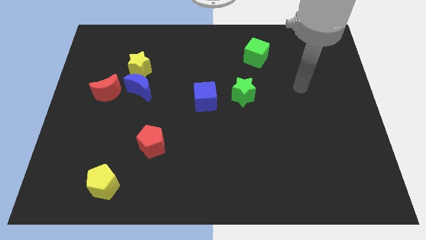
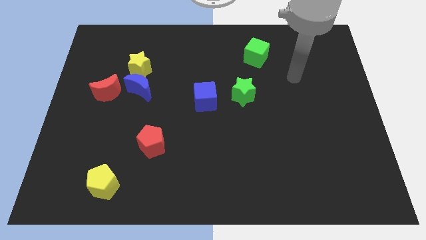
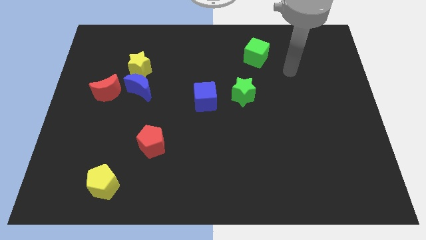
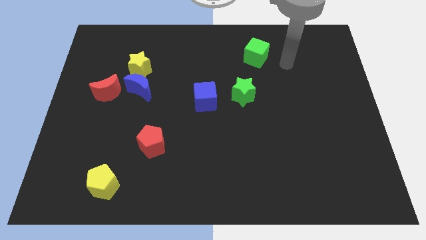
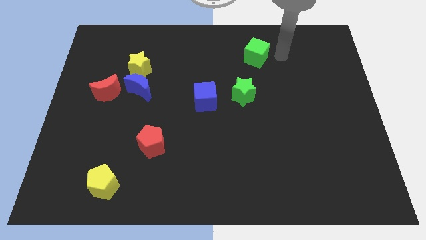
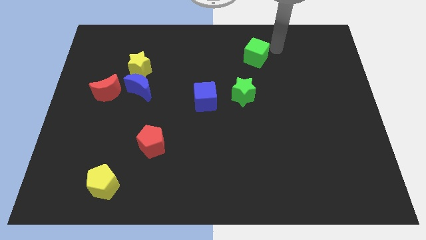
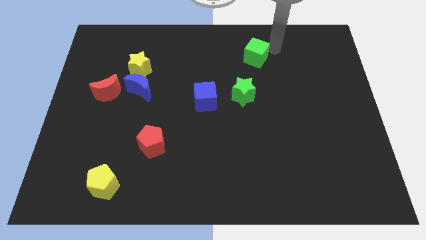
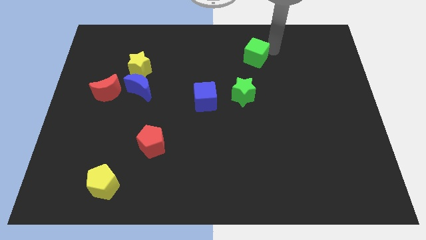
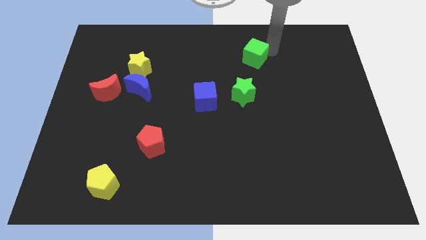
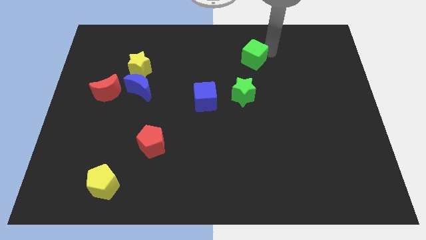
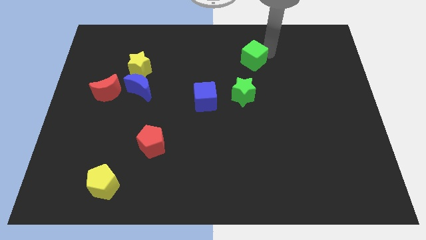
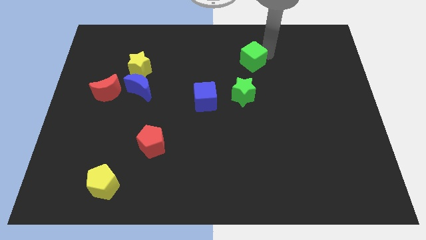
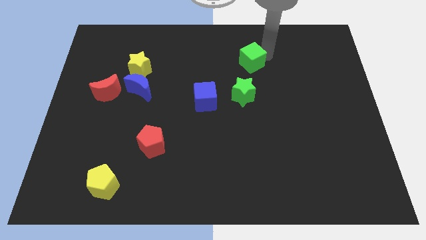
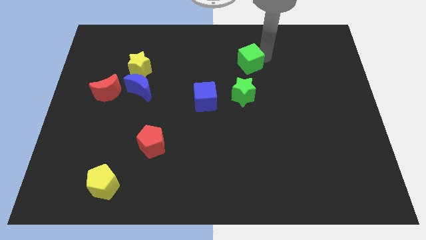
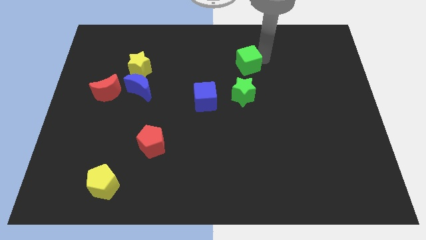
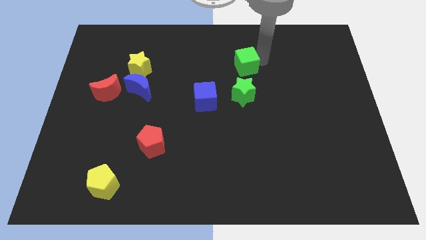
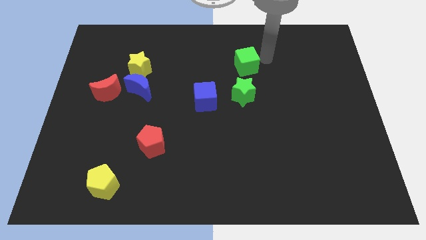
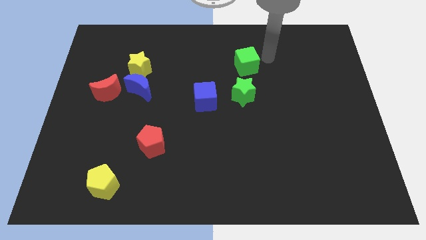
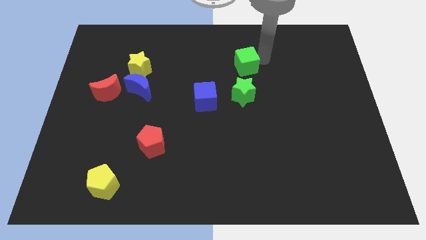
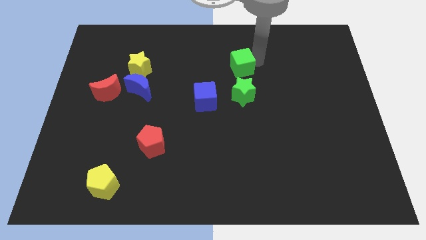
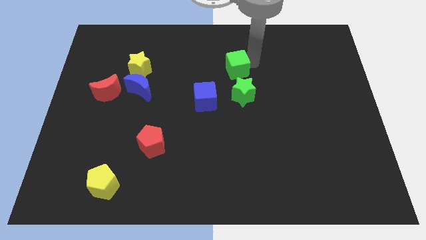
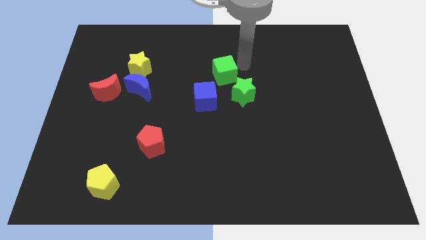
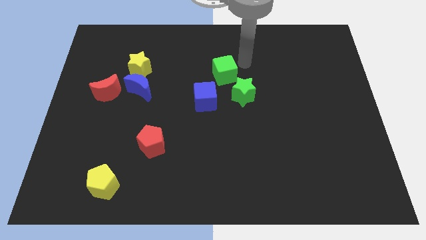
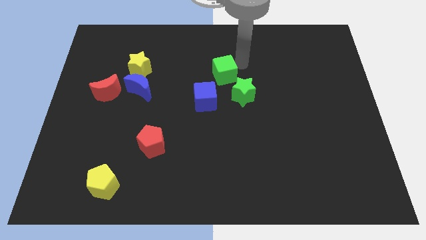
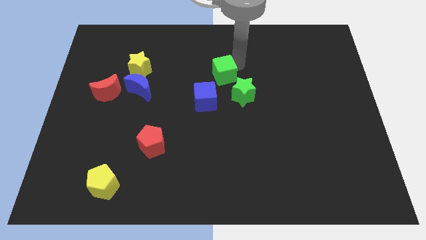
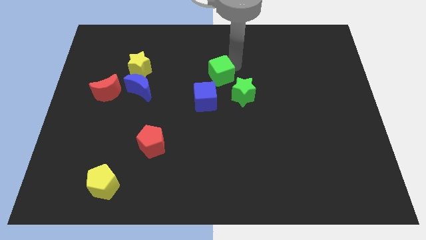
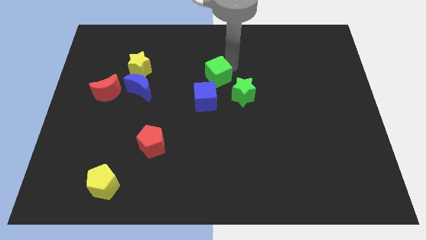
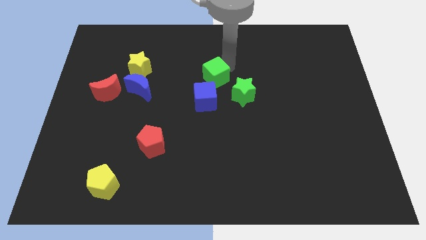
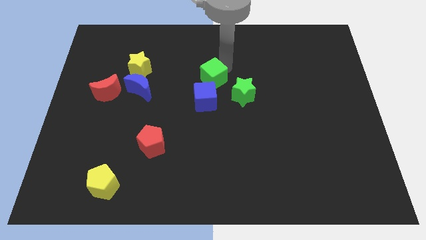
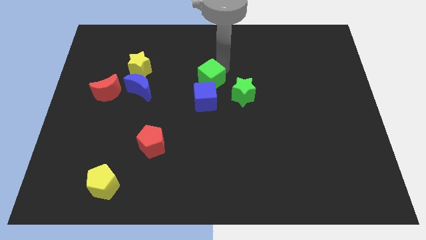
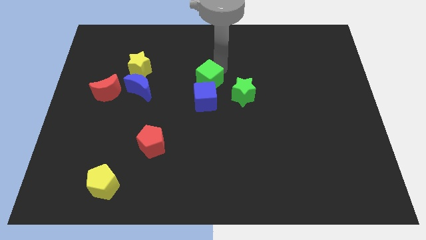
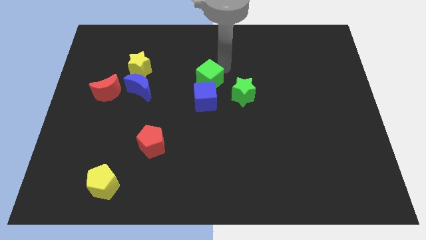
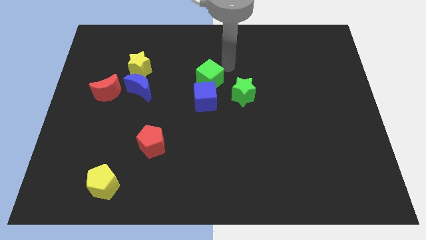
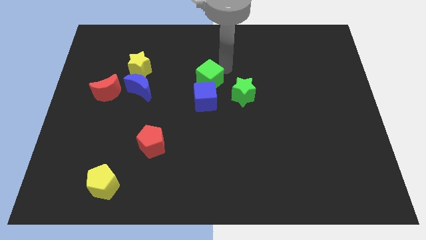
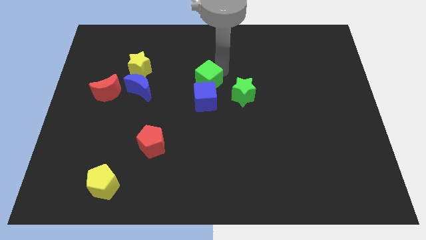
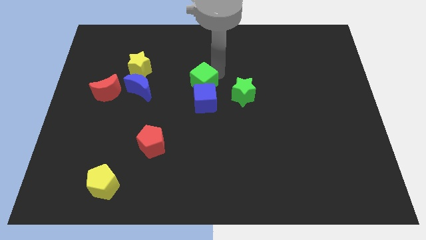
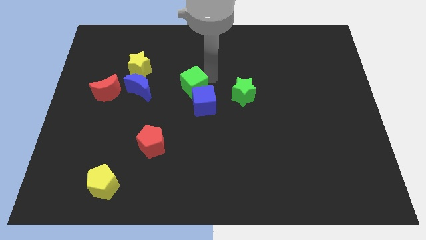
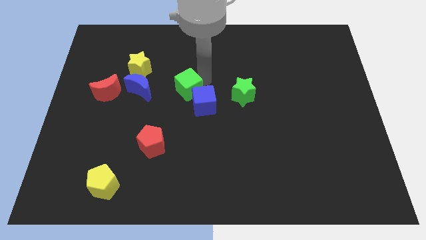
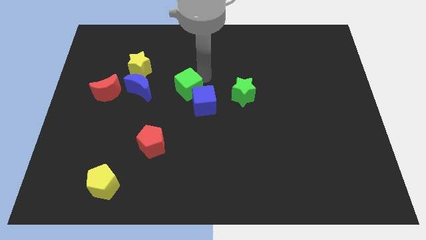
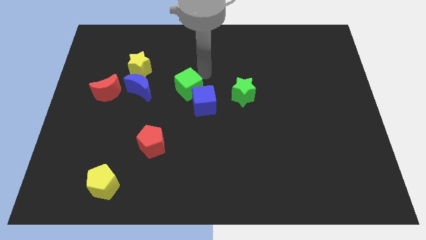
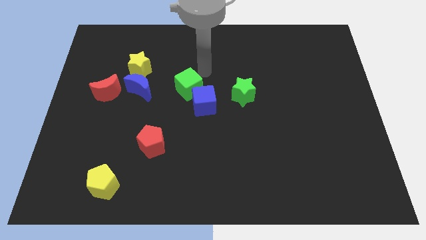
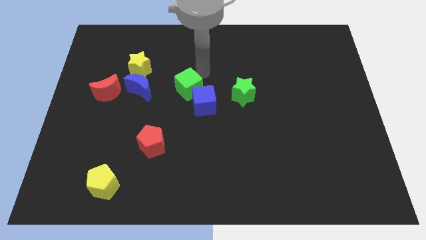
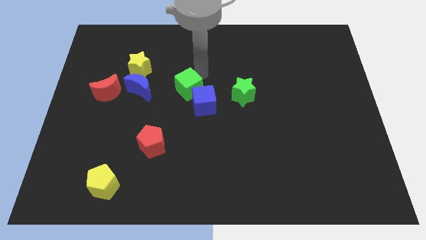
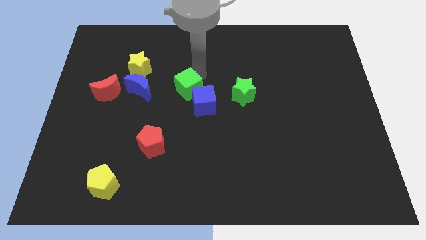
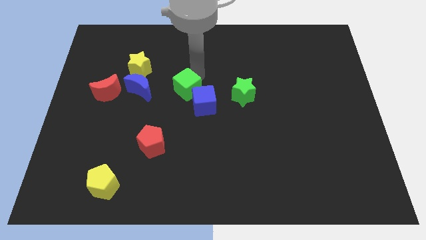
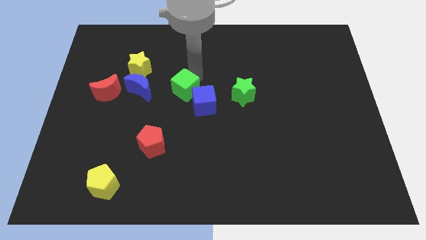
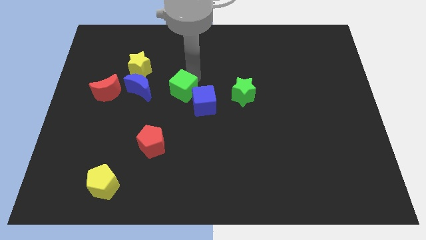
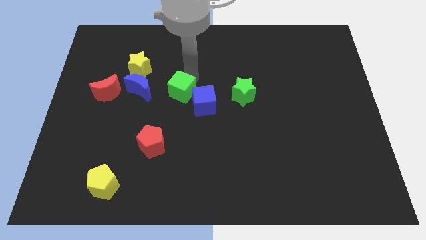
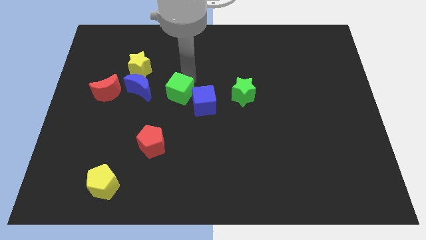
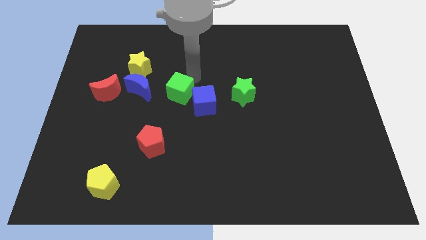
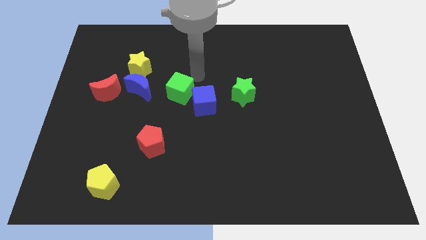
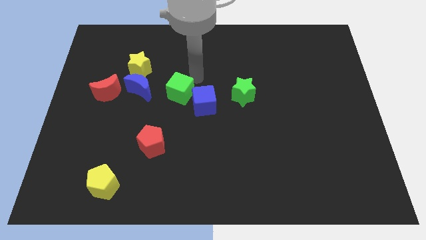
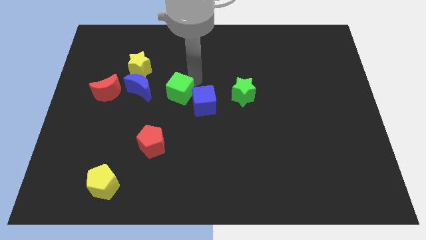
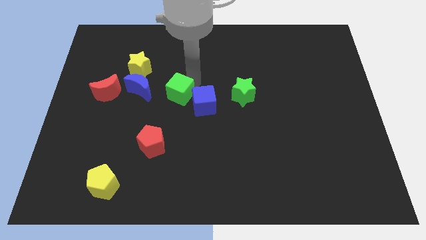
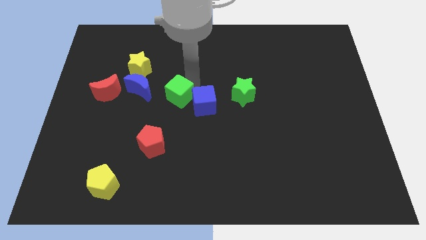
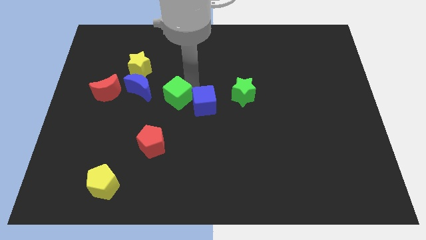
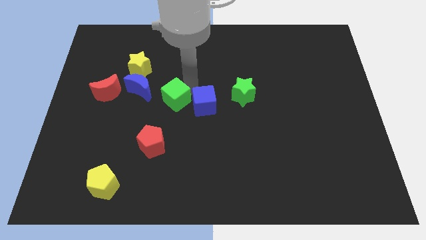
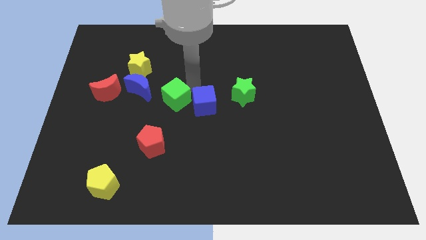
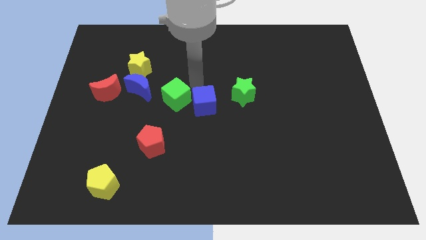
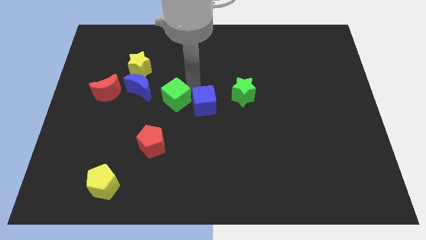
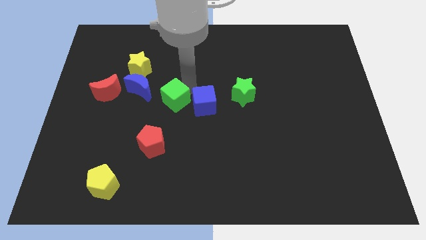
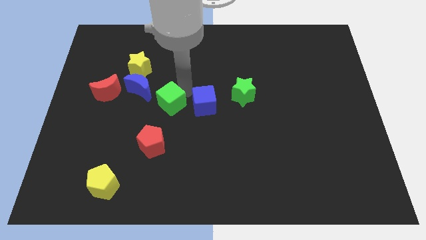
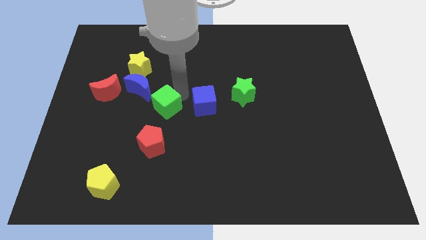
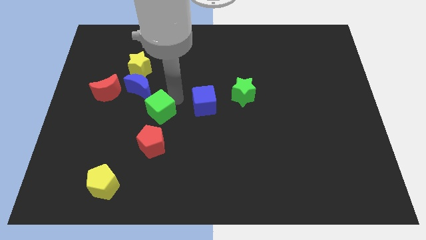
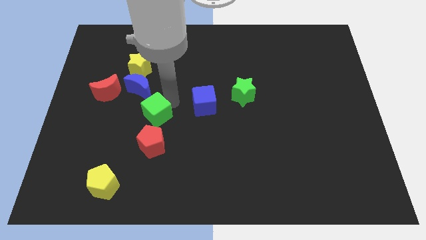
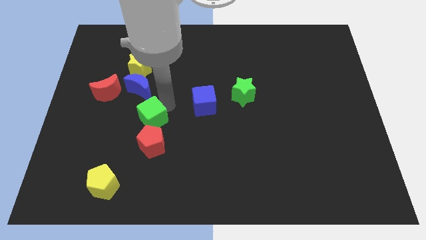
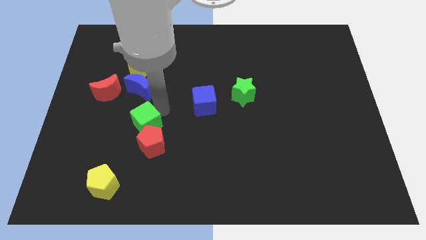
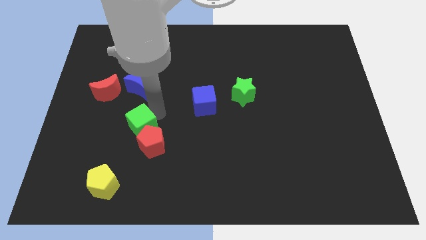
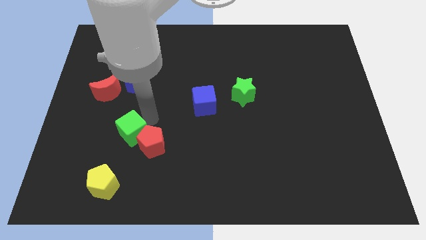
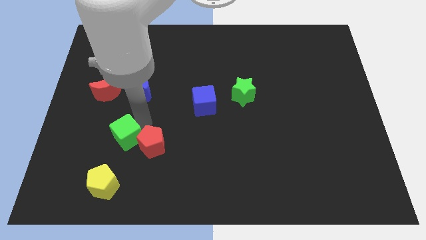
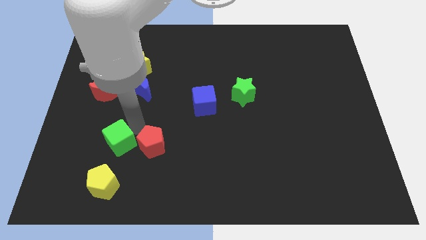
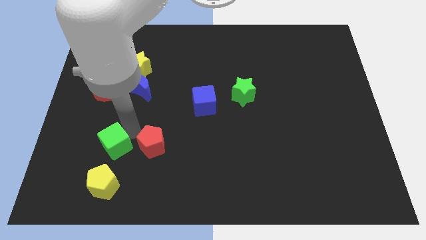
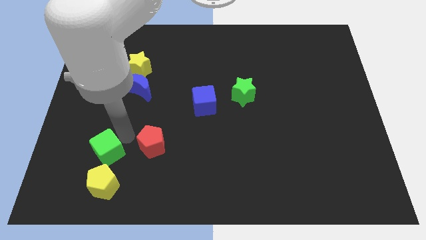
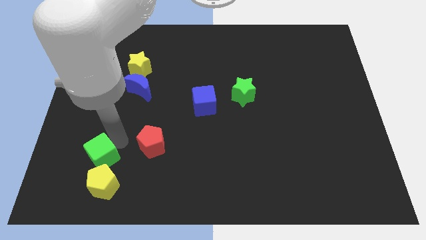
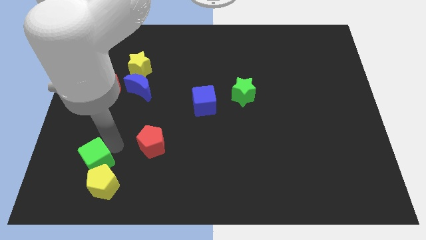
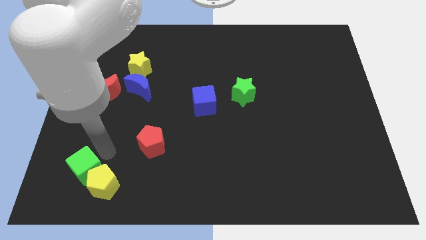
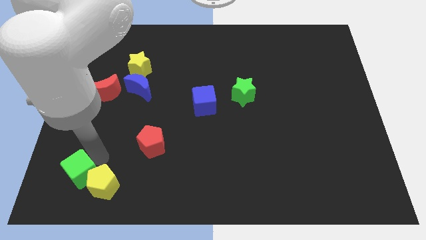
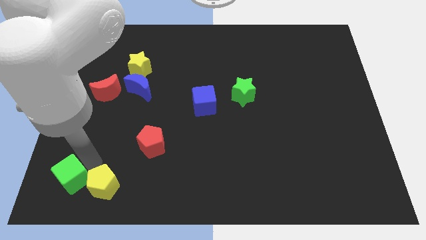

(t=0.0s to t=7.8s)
move the green cube to the bottom left corner
